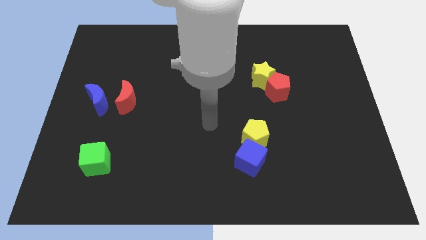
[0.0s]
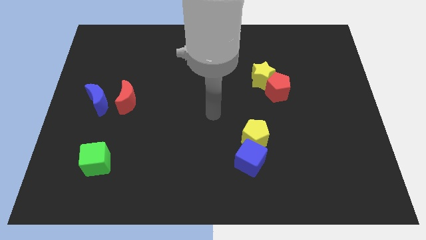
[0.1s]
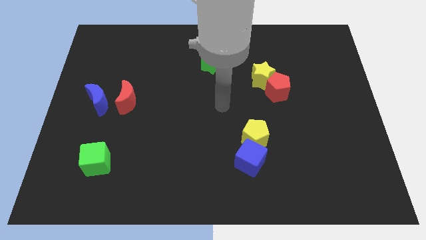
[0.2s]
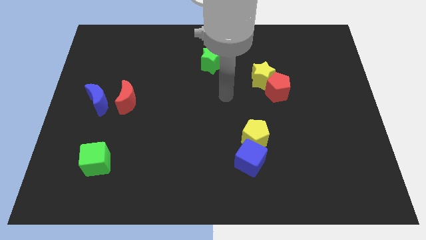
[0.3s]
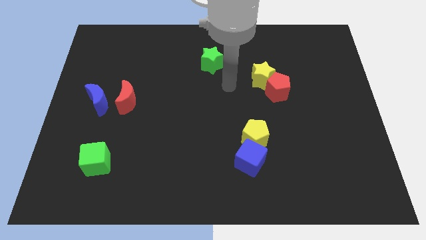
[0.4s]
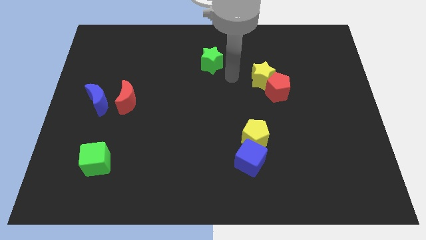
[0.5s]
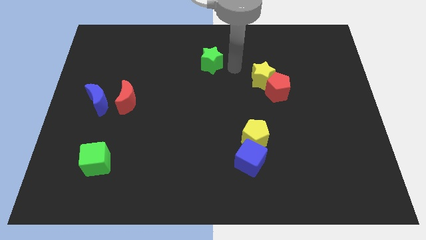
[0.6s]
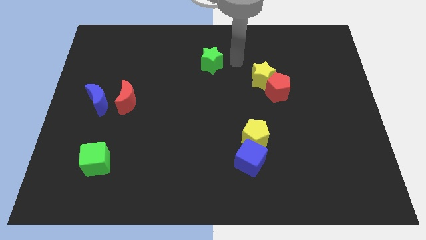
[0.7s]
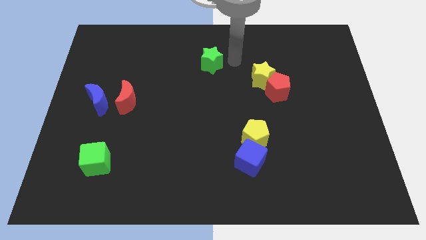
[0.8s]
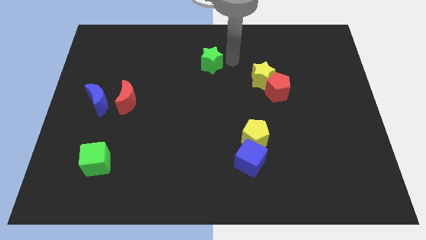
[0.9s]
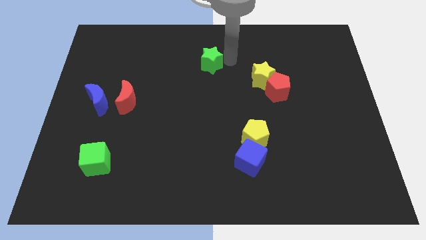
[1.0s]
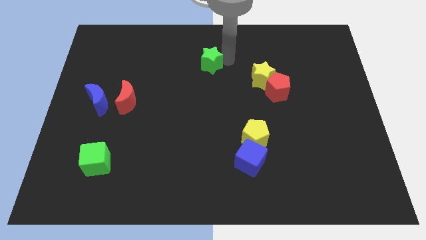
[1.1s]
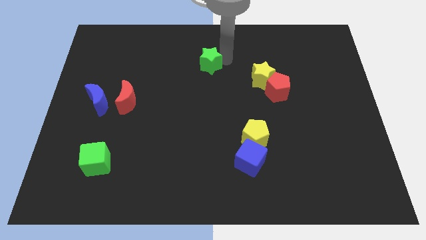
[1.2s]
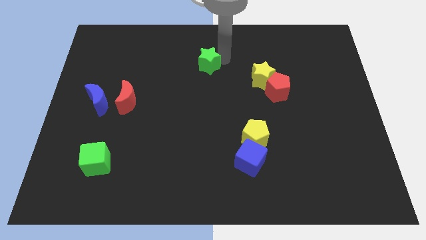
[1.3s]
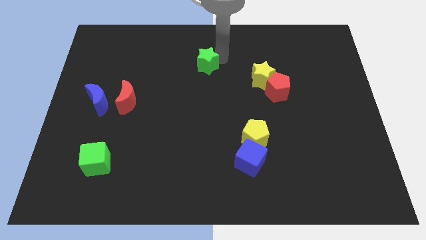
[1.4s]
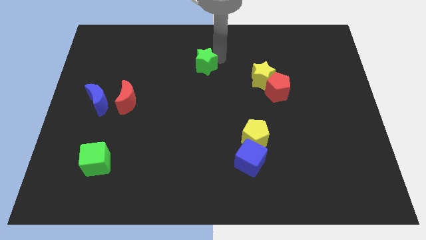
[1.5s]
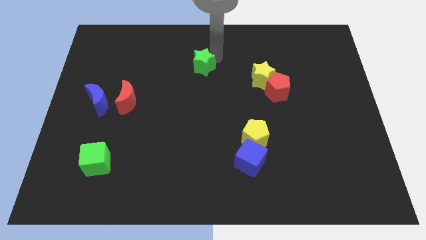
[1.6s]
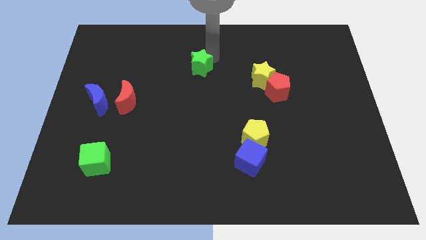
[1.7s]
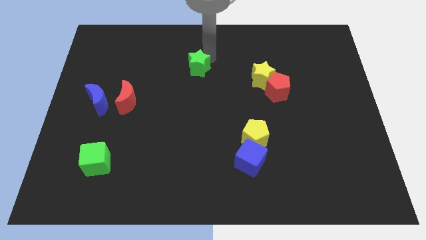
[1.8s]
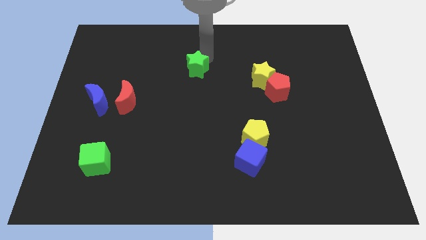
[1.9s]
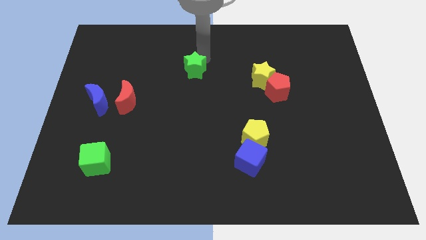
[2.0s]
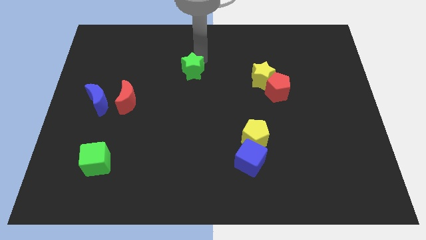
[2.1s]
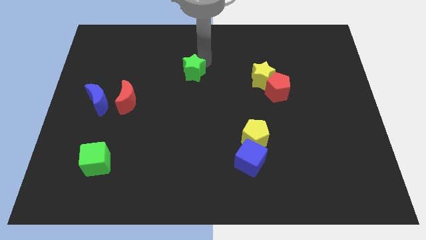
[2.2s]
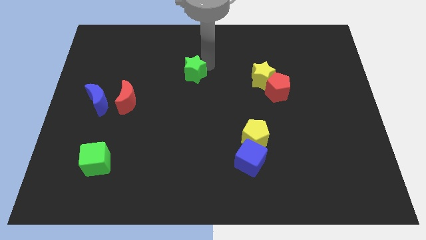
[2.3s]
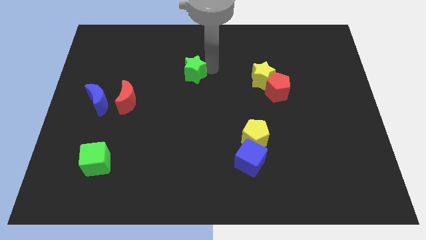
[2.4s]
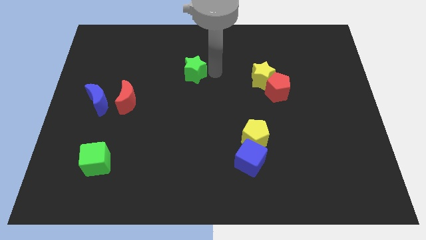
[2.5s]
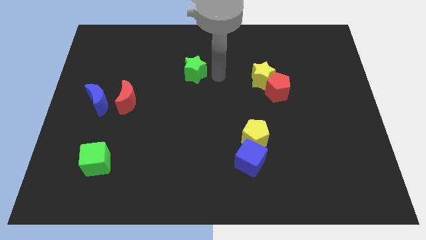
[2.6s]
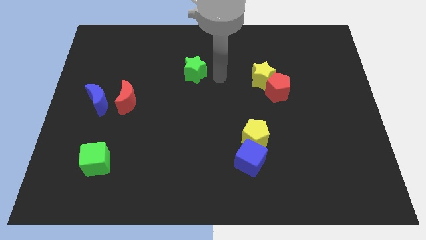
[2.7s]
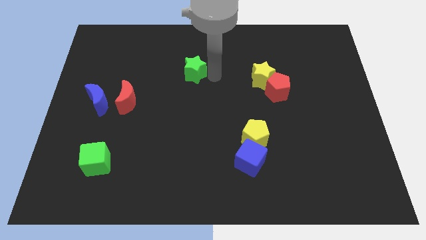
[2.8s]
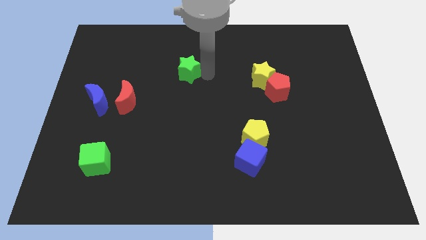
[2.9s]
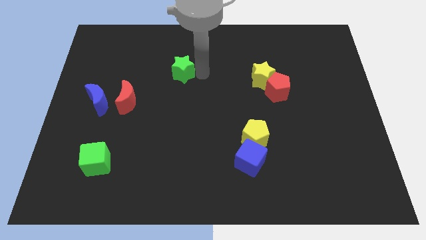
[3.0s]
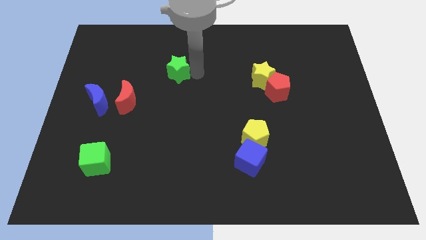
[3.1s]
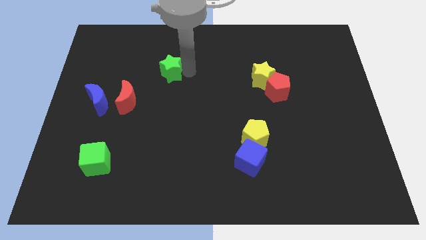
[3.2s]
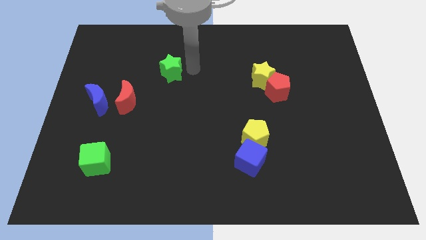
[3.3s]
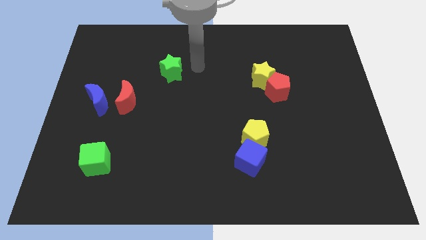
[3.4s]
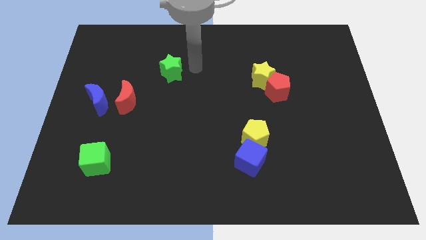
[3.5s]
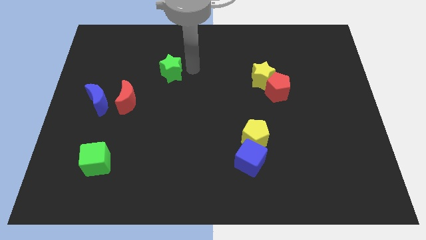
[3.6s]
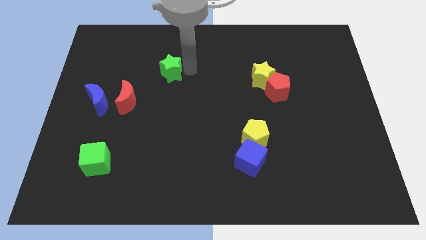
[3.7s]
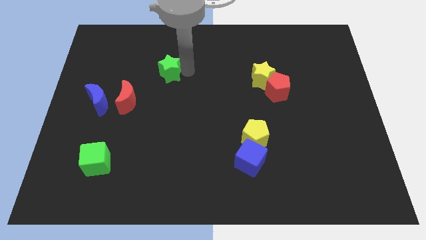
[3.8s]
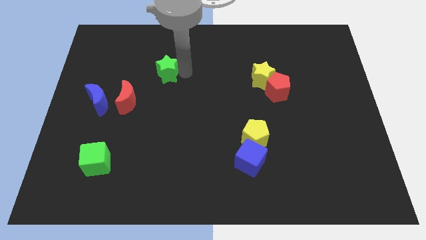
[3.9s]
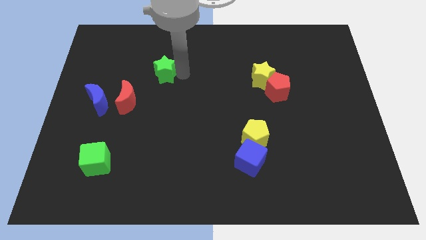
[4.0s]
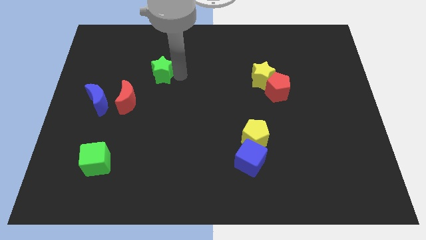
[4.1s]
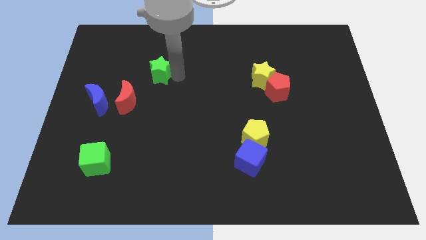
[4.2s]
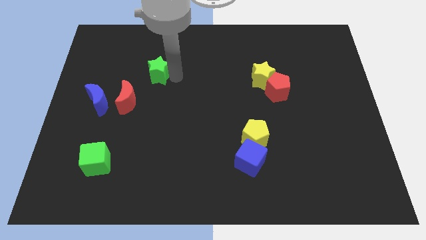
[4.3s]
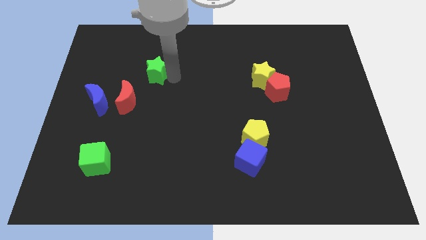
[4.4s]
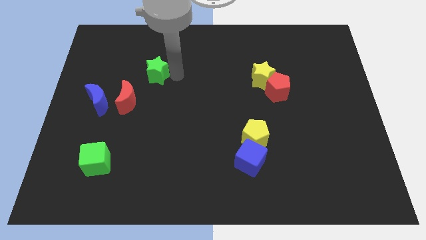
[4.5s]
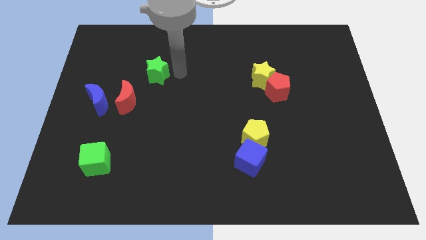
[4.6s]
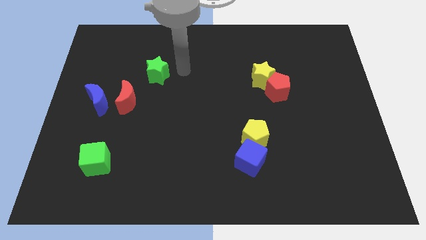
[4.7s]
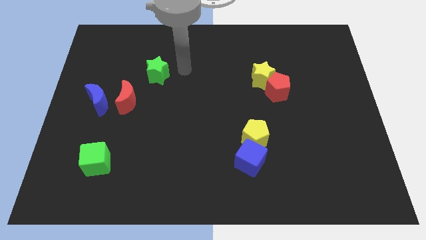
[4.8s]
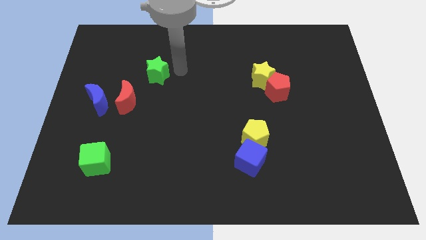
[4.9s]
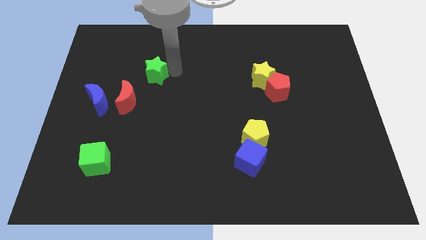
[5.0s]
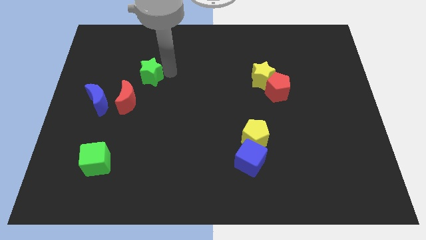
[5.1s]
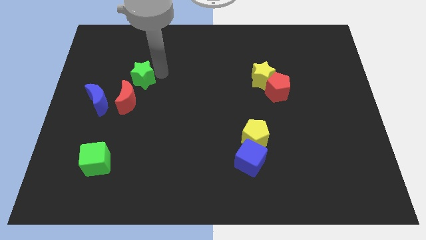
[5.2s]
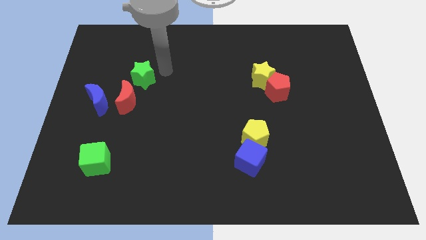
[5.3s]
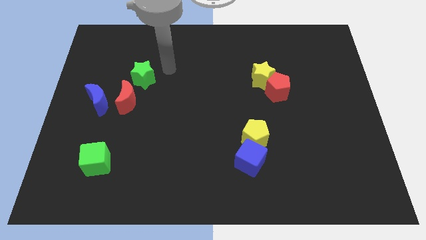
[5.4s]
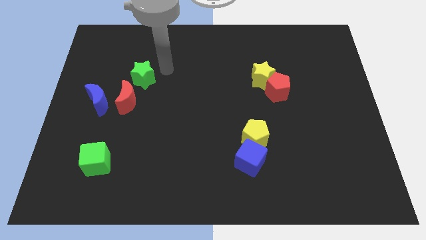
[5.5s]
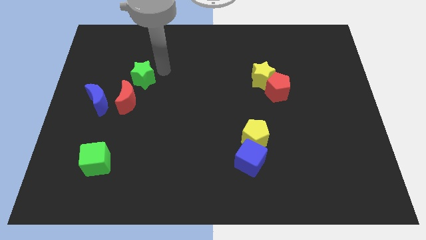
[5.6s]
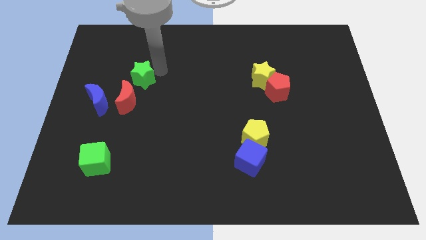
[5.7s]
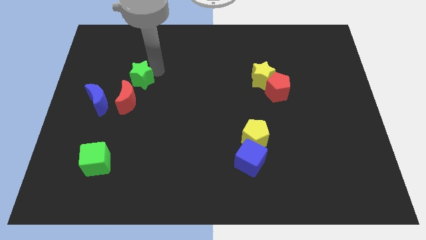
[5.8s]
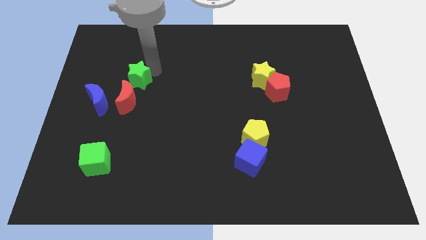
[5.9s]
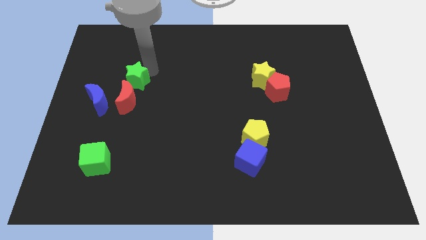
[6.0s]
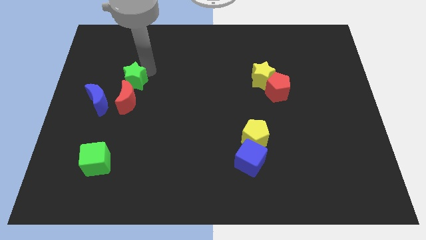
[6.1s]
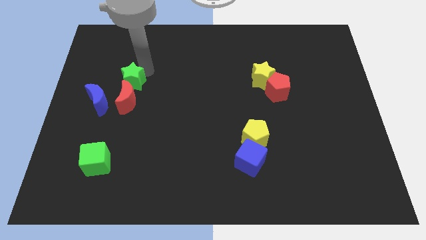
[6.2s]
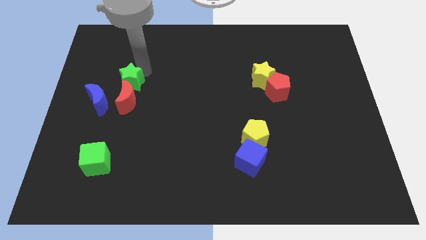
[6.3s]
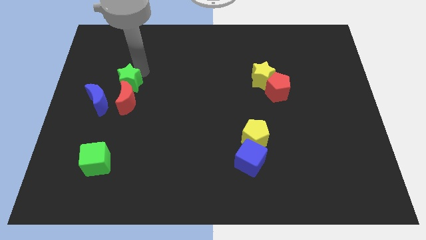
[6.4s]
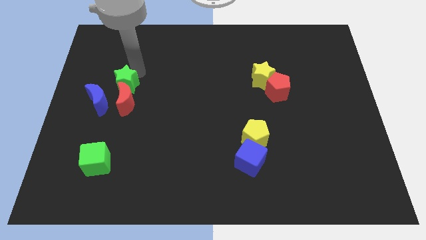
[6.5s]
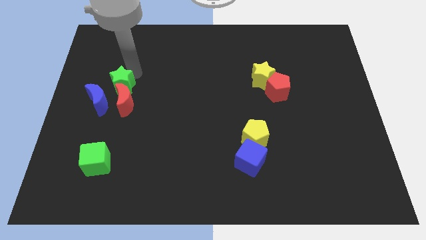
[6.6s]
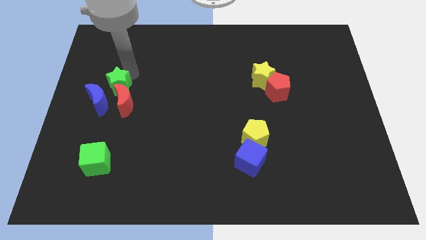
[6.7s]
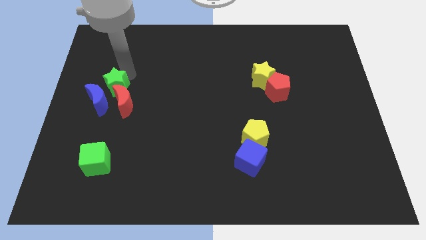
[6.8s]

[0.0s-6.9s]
put the green star next to the blue moon

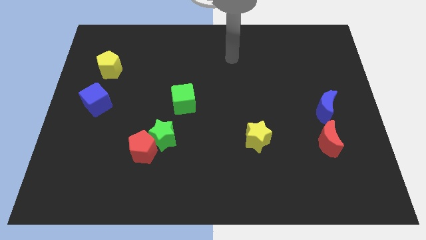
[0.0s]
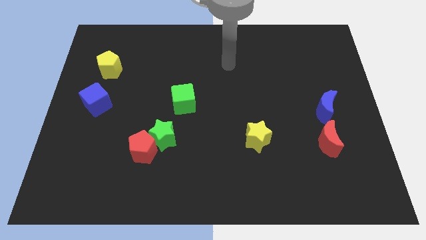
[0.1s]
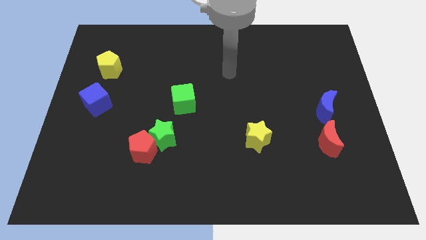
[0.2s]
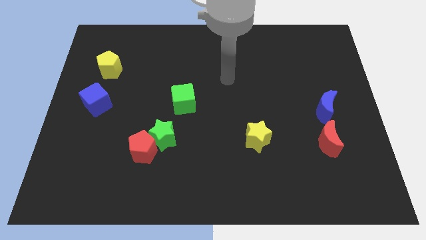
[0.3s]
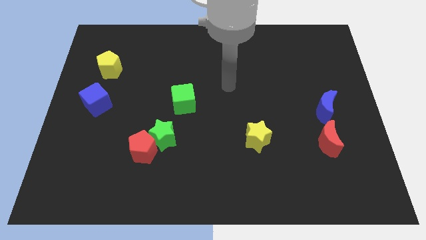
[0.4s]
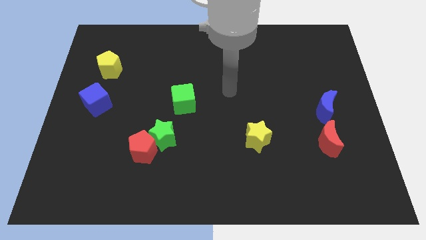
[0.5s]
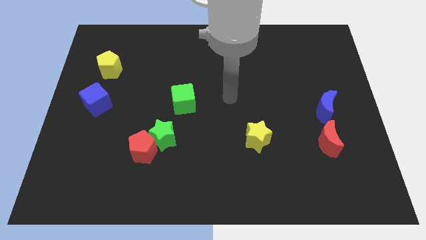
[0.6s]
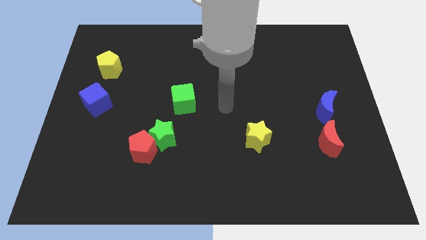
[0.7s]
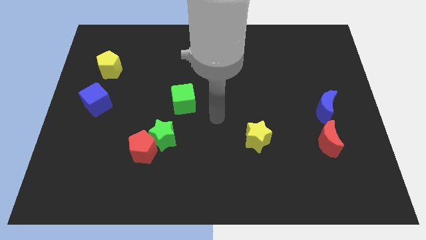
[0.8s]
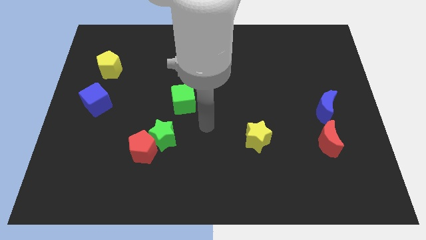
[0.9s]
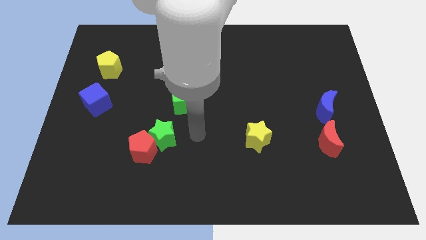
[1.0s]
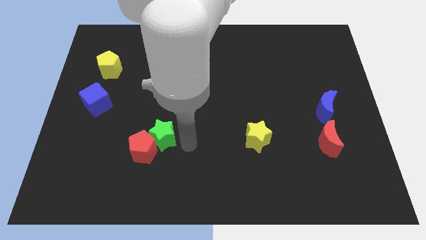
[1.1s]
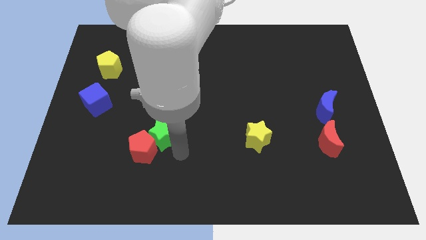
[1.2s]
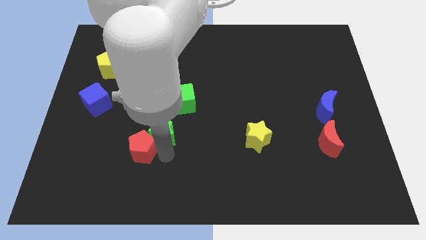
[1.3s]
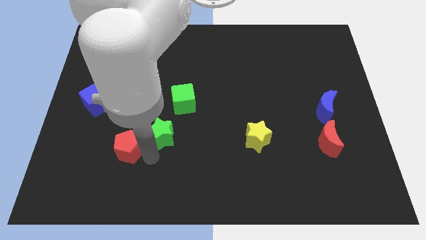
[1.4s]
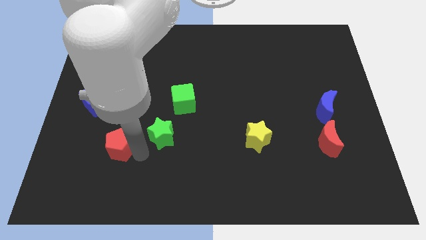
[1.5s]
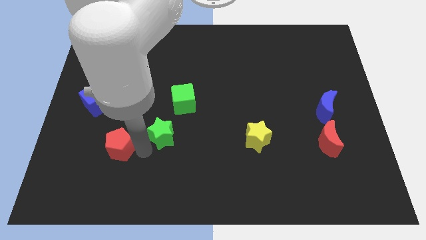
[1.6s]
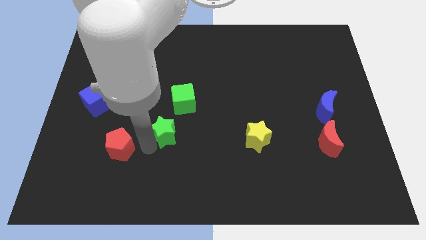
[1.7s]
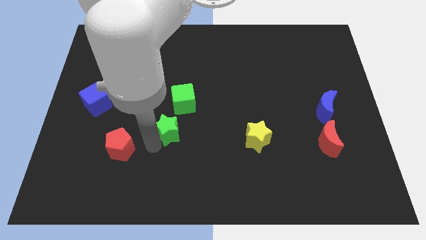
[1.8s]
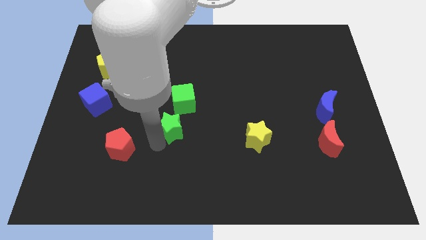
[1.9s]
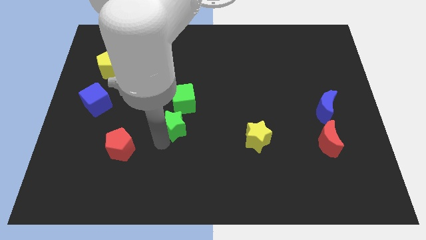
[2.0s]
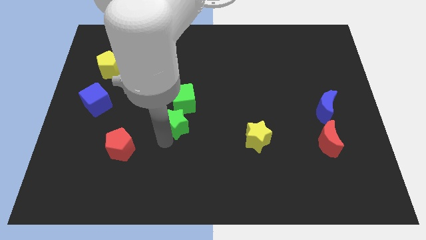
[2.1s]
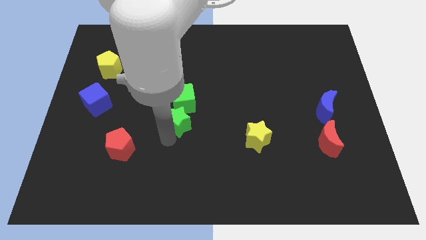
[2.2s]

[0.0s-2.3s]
move the green star next to the green cube
